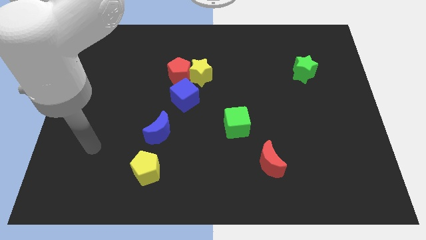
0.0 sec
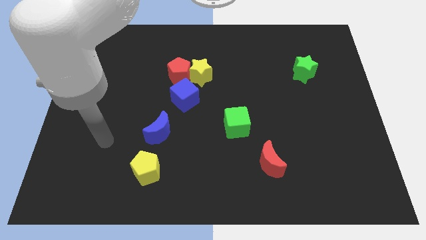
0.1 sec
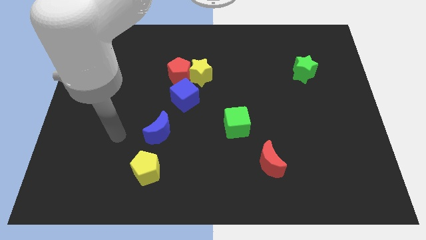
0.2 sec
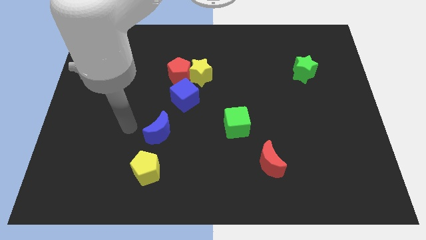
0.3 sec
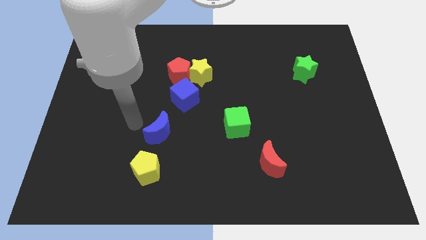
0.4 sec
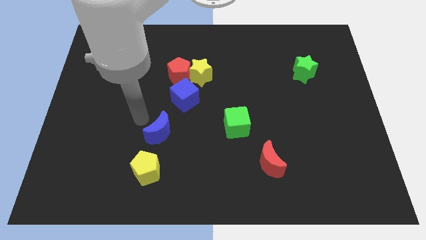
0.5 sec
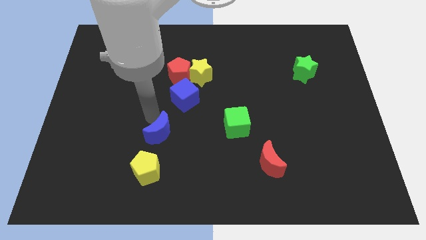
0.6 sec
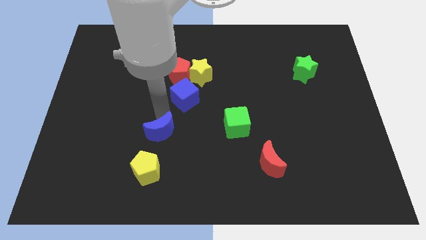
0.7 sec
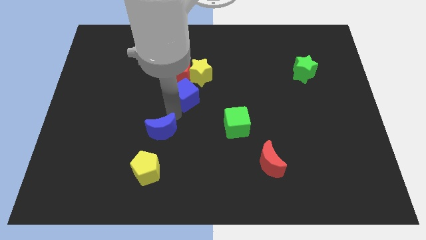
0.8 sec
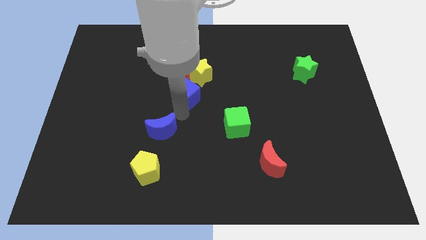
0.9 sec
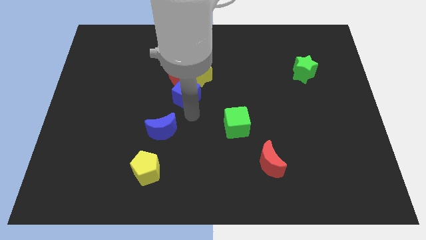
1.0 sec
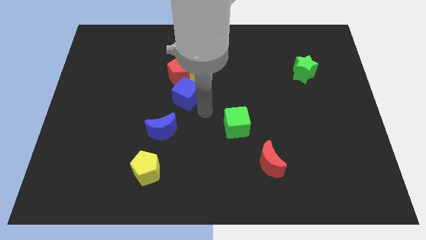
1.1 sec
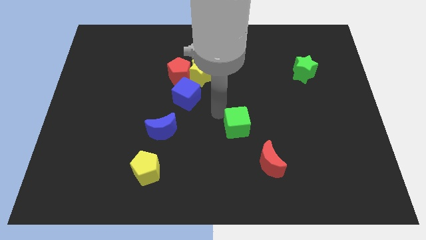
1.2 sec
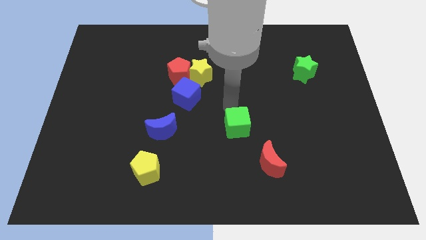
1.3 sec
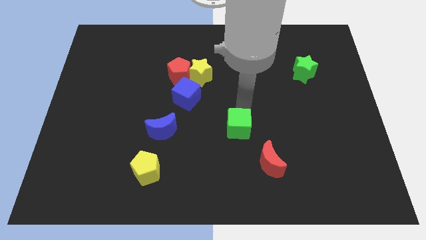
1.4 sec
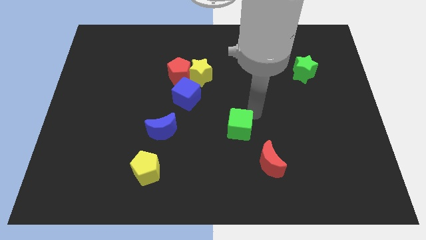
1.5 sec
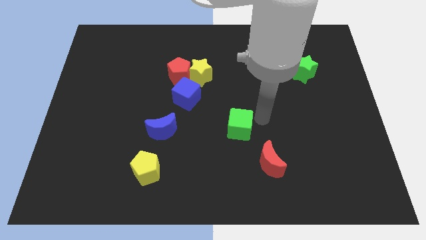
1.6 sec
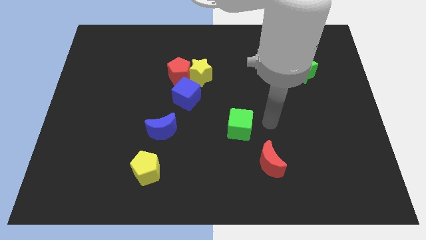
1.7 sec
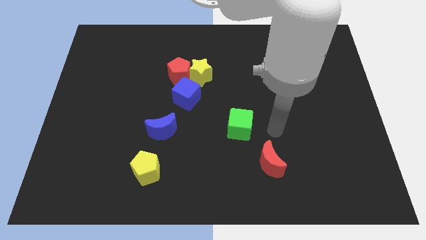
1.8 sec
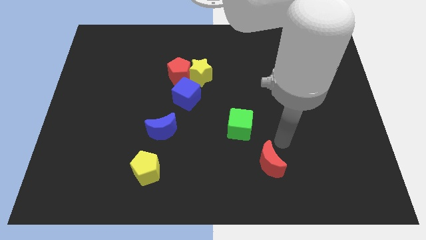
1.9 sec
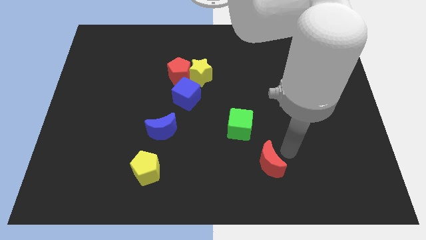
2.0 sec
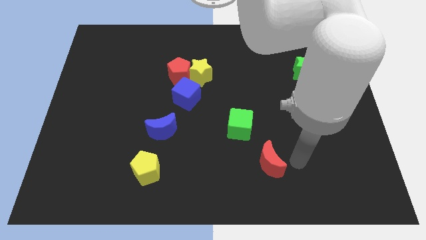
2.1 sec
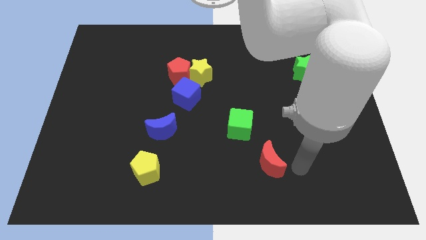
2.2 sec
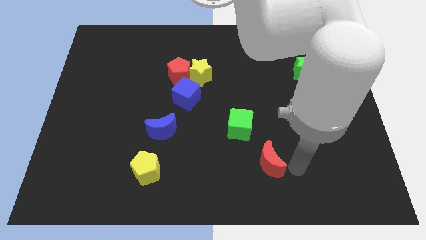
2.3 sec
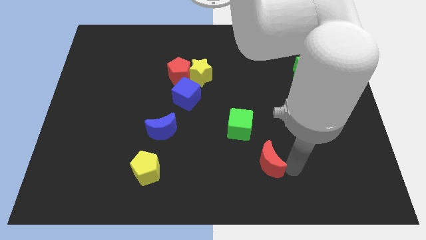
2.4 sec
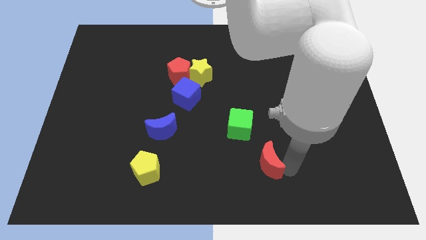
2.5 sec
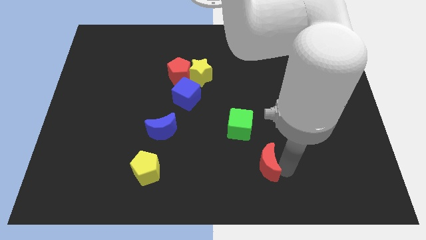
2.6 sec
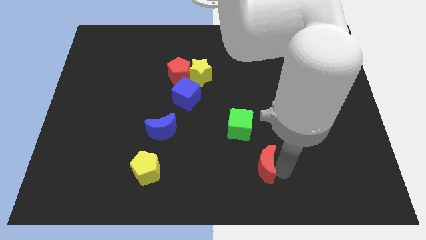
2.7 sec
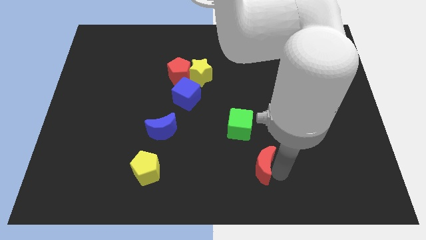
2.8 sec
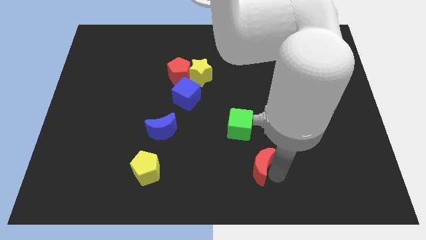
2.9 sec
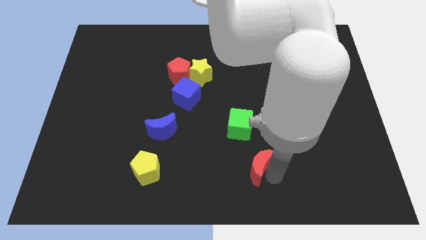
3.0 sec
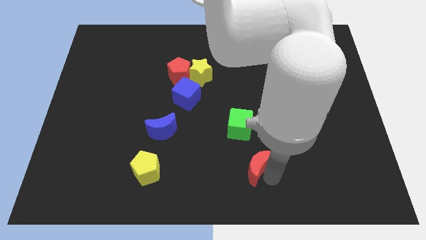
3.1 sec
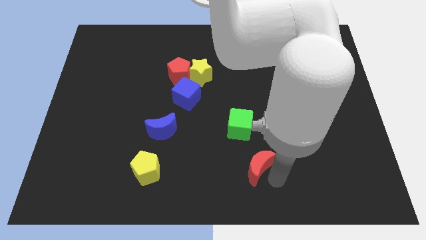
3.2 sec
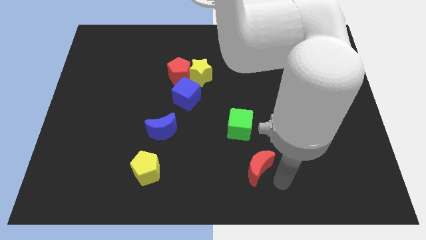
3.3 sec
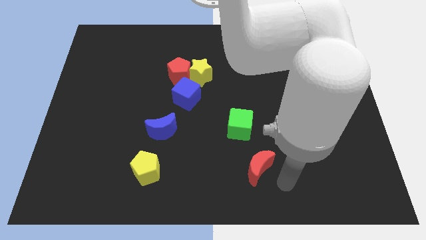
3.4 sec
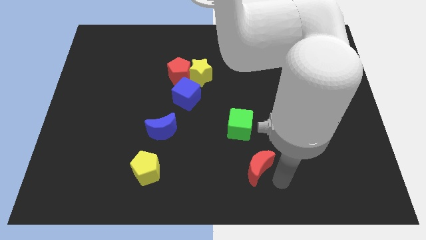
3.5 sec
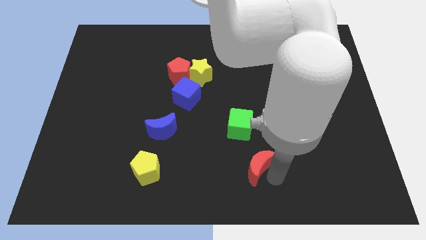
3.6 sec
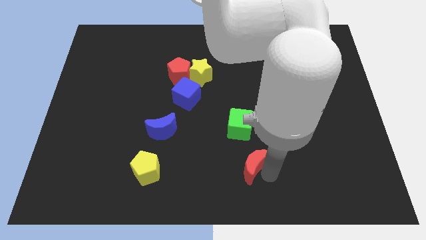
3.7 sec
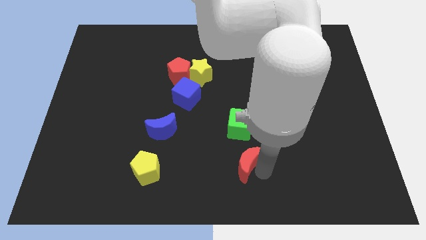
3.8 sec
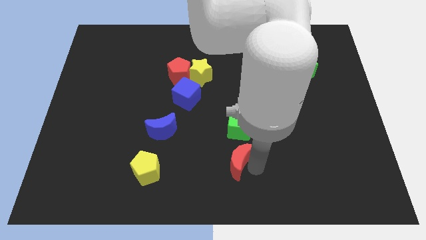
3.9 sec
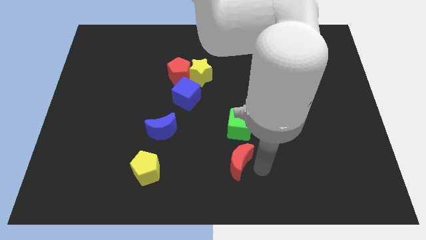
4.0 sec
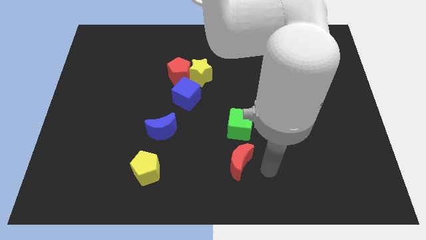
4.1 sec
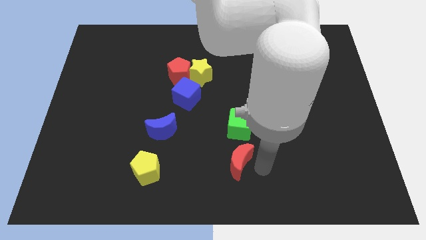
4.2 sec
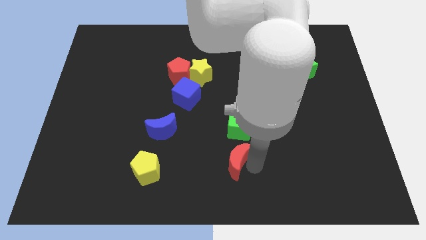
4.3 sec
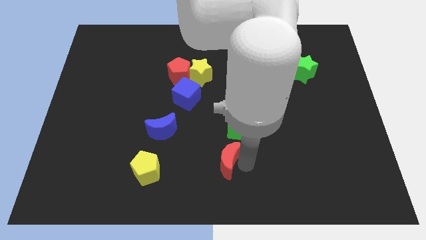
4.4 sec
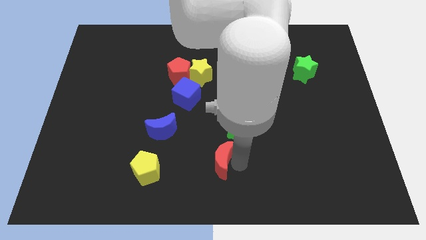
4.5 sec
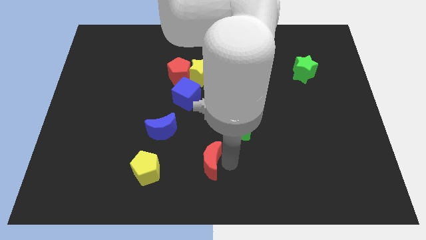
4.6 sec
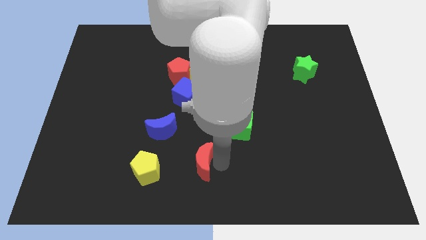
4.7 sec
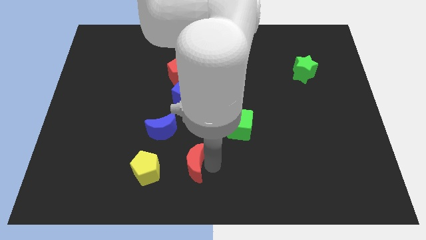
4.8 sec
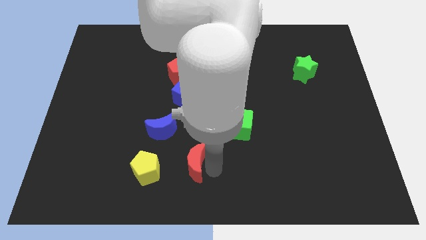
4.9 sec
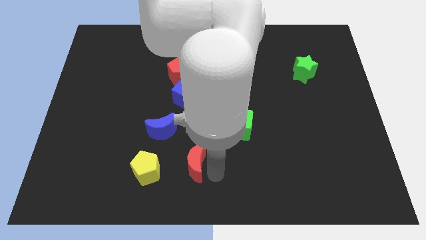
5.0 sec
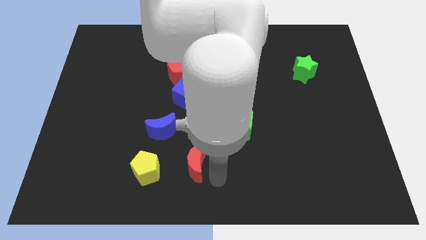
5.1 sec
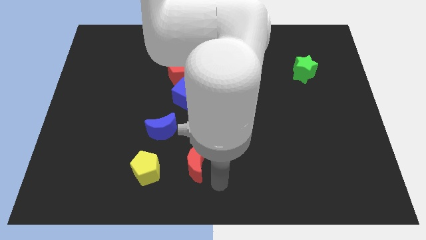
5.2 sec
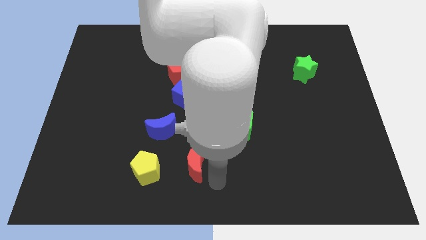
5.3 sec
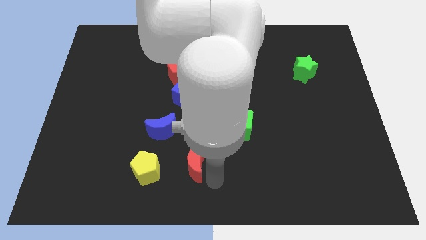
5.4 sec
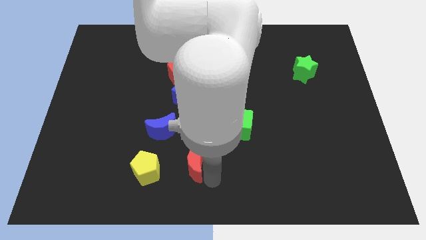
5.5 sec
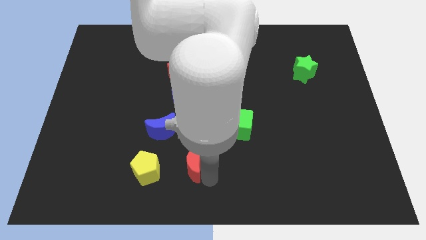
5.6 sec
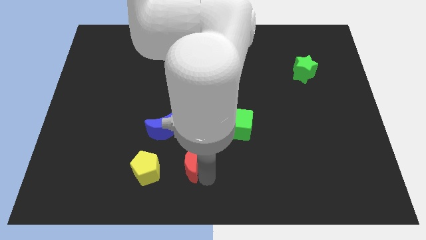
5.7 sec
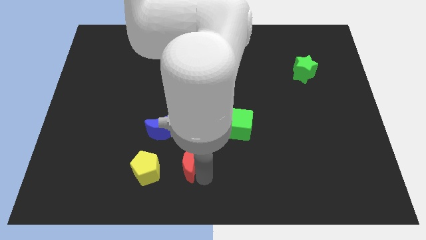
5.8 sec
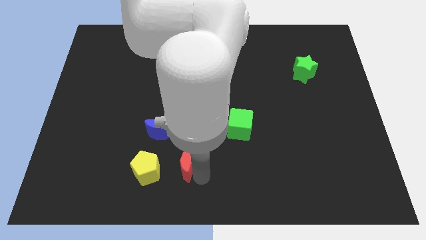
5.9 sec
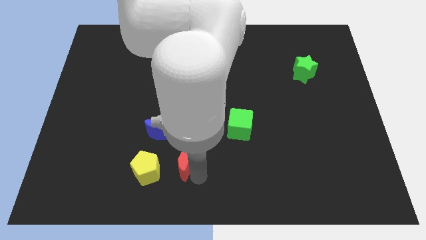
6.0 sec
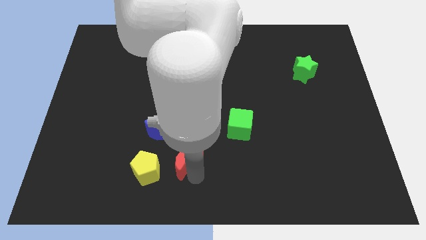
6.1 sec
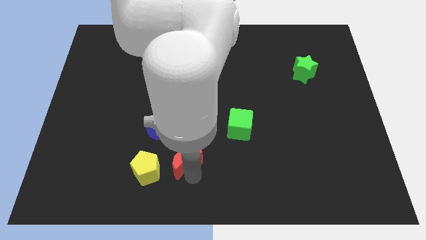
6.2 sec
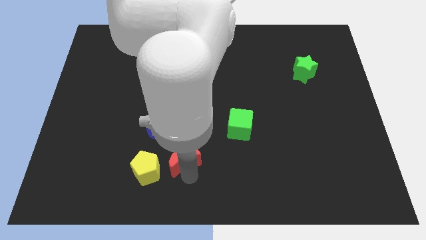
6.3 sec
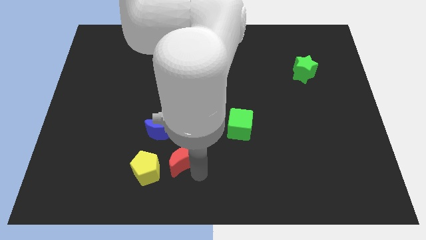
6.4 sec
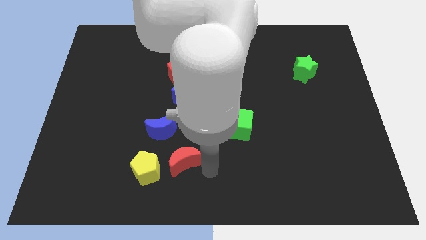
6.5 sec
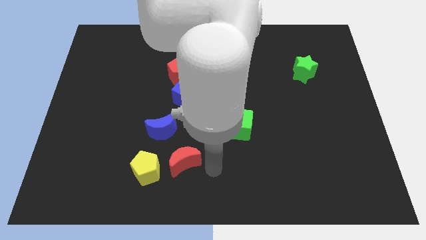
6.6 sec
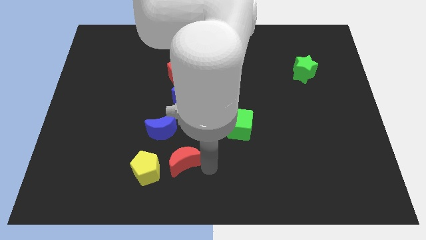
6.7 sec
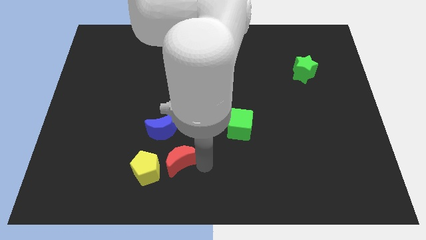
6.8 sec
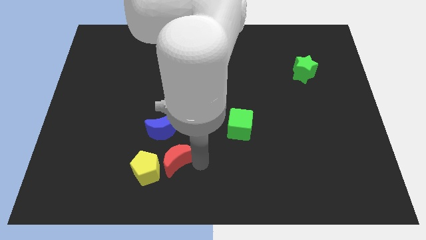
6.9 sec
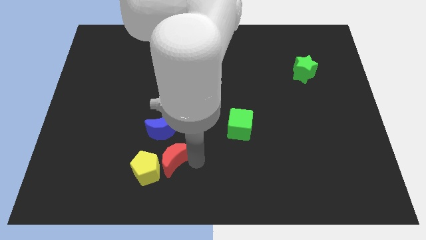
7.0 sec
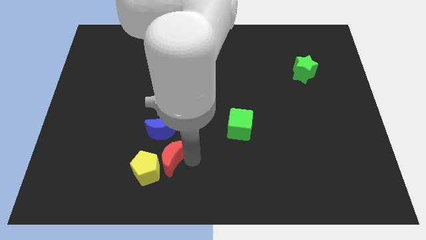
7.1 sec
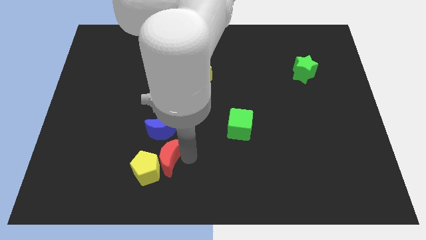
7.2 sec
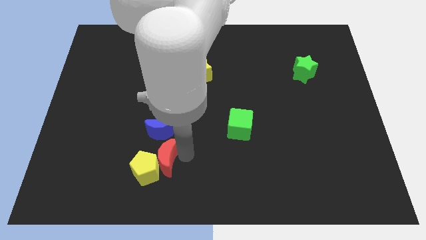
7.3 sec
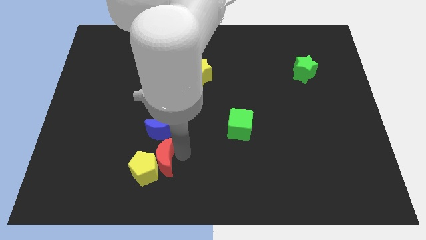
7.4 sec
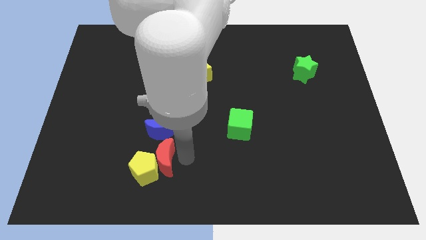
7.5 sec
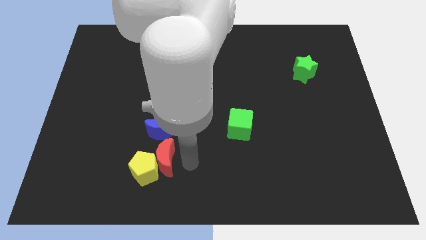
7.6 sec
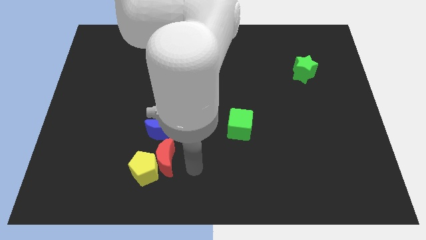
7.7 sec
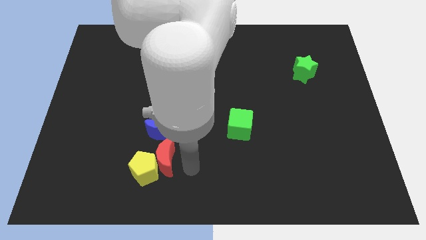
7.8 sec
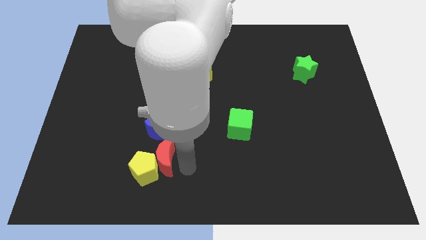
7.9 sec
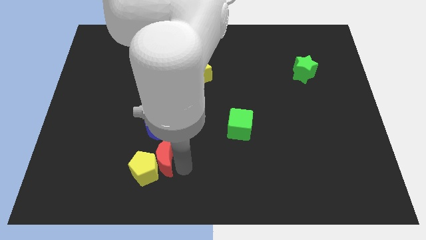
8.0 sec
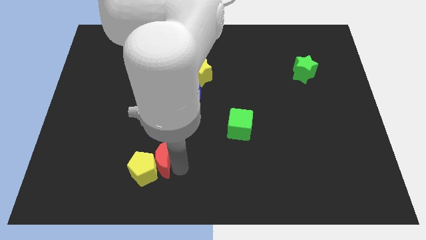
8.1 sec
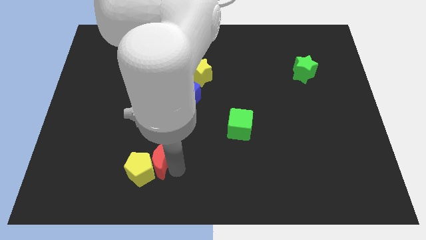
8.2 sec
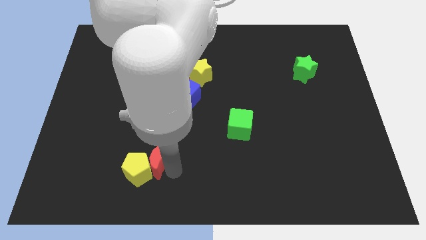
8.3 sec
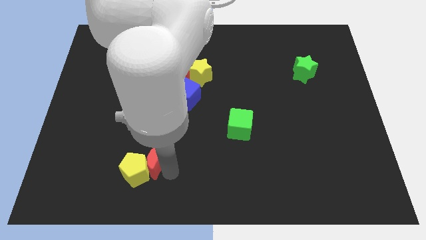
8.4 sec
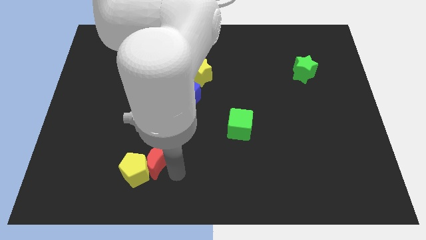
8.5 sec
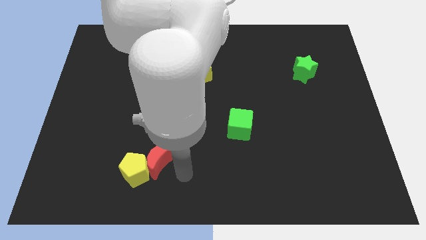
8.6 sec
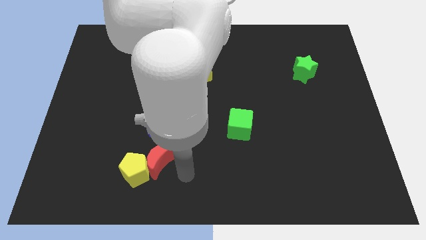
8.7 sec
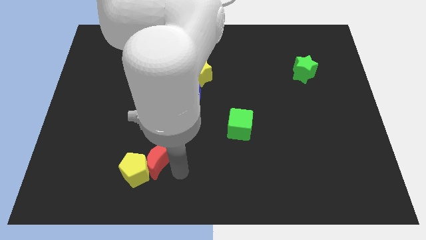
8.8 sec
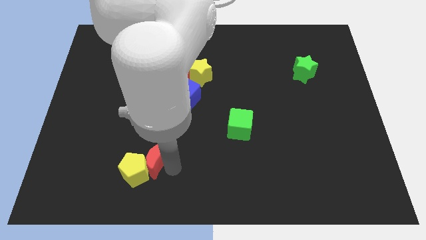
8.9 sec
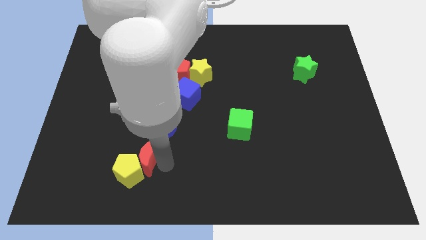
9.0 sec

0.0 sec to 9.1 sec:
put the red moon to the bottom left of the blue moon
